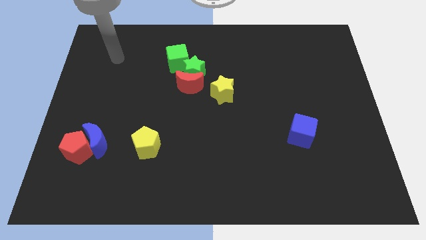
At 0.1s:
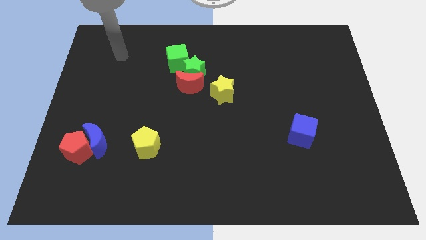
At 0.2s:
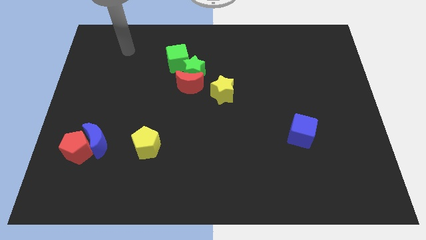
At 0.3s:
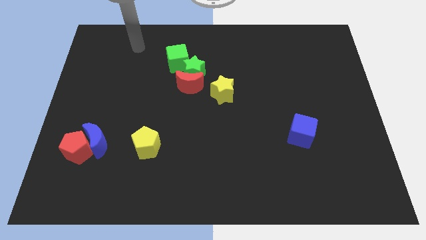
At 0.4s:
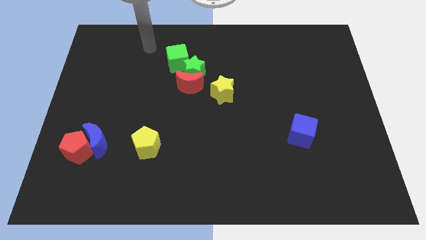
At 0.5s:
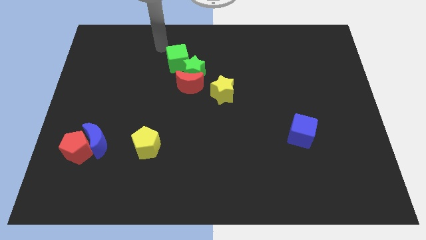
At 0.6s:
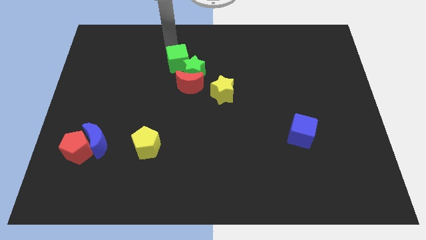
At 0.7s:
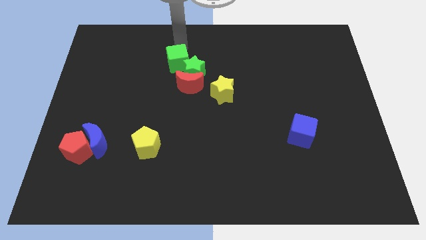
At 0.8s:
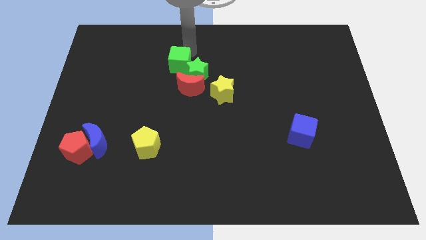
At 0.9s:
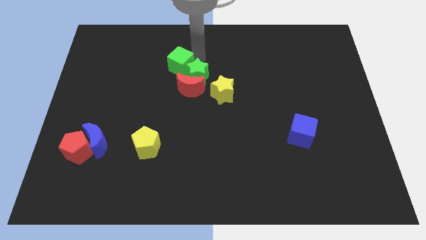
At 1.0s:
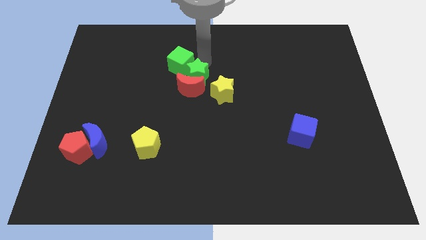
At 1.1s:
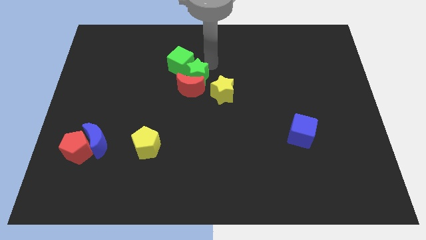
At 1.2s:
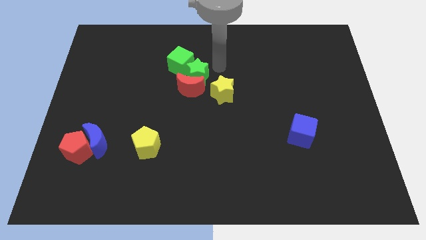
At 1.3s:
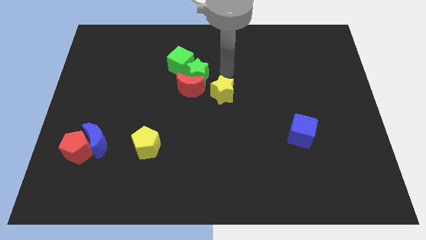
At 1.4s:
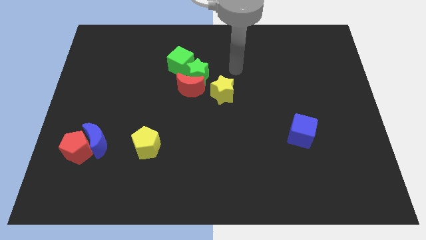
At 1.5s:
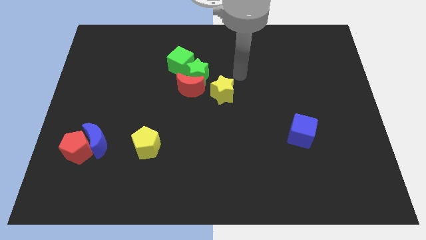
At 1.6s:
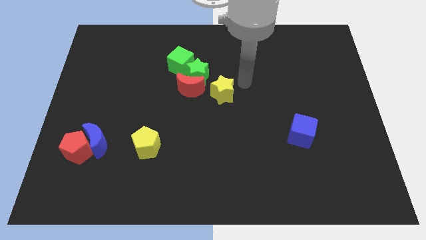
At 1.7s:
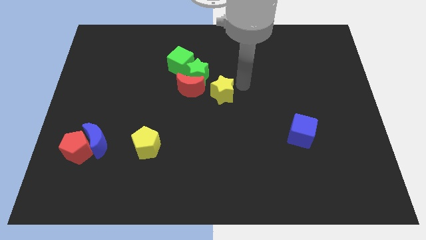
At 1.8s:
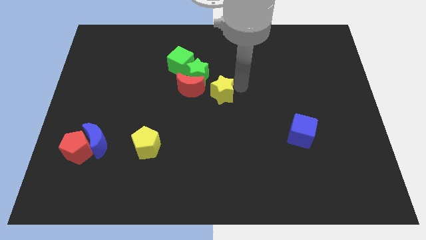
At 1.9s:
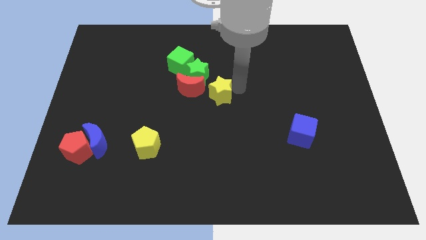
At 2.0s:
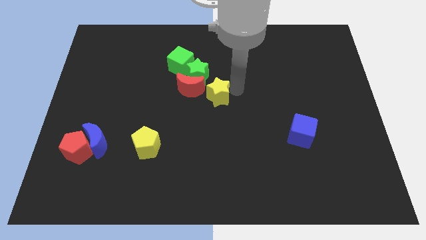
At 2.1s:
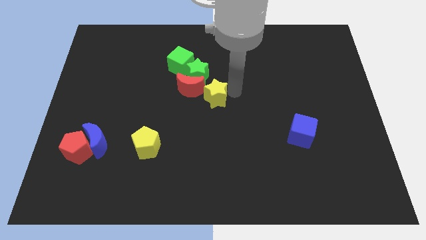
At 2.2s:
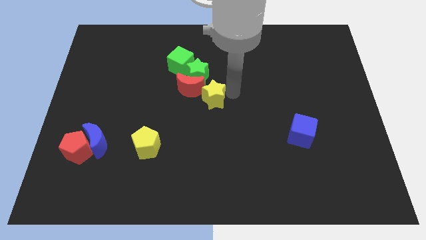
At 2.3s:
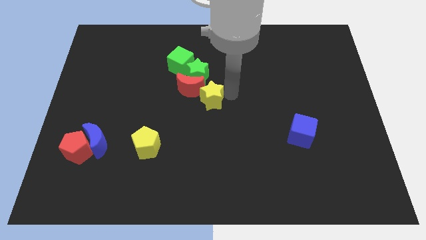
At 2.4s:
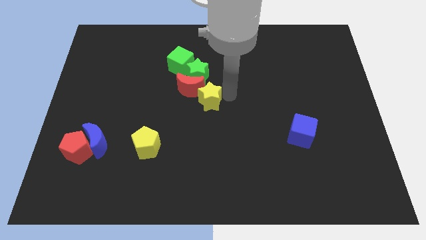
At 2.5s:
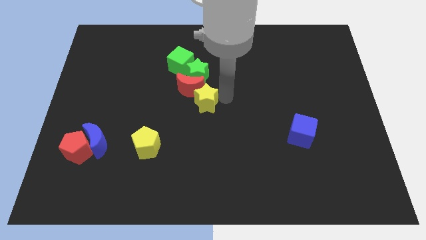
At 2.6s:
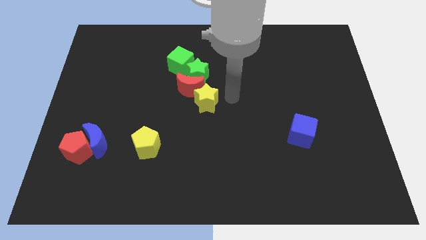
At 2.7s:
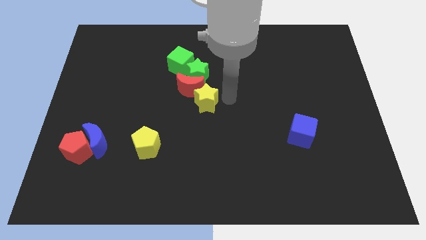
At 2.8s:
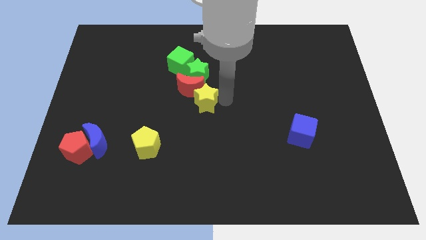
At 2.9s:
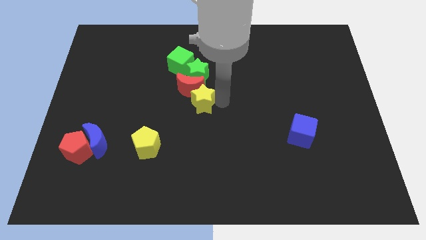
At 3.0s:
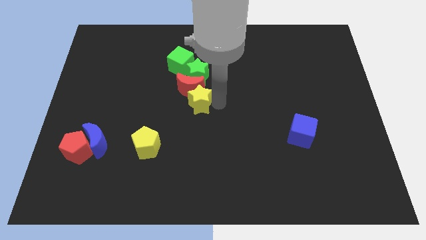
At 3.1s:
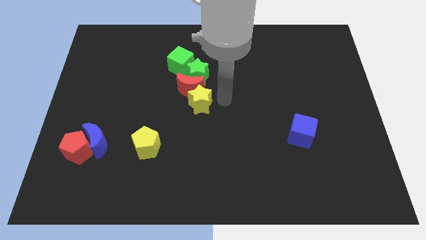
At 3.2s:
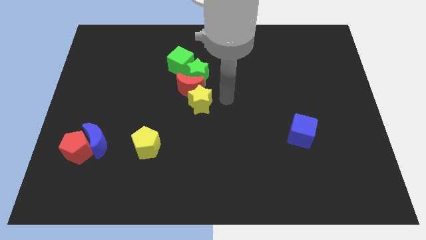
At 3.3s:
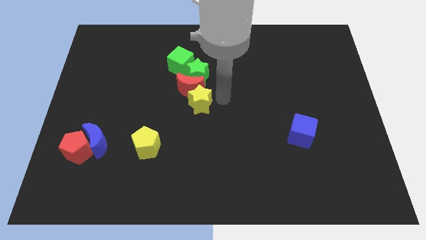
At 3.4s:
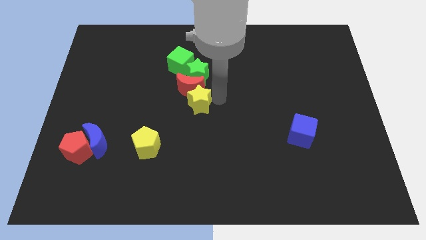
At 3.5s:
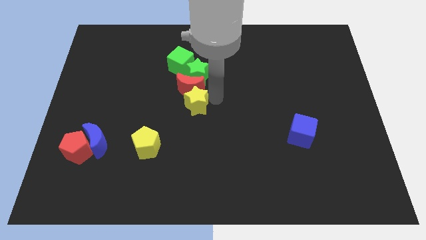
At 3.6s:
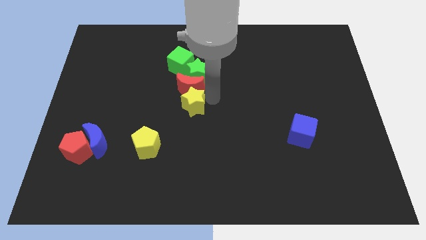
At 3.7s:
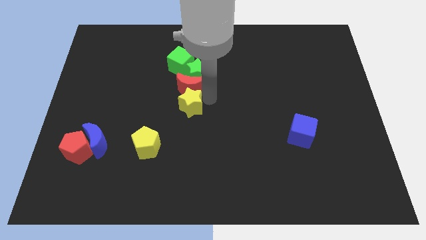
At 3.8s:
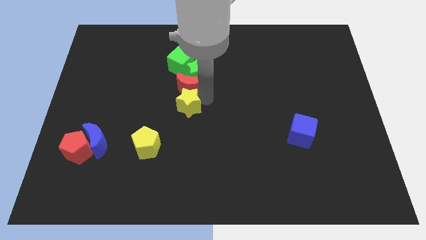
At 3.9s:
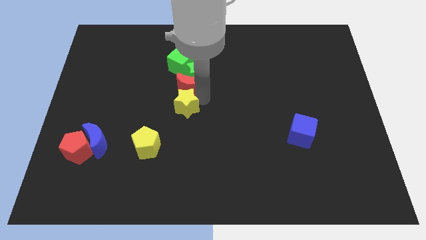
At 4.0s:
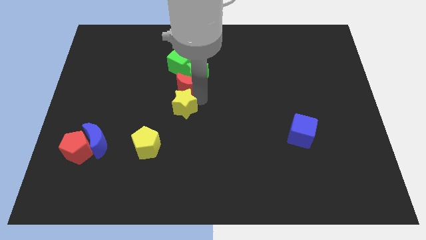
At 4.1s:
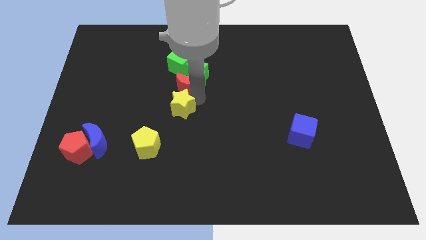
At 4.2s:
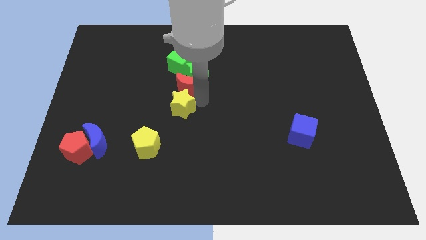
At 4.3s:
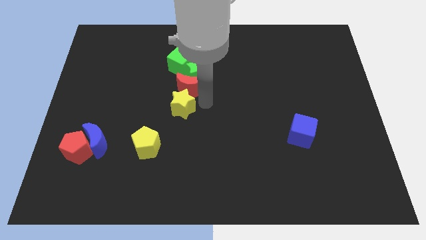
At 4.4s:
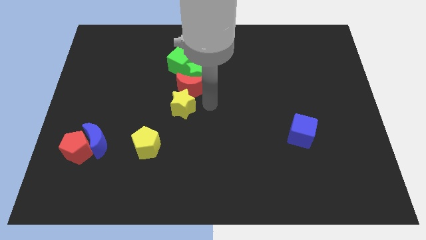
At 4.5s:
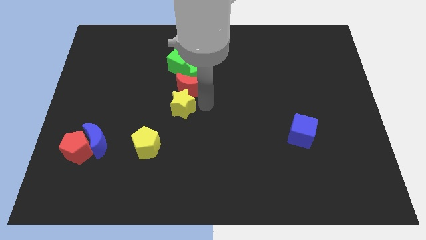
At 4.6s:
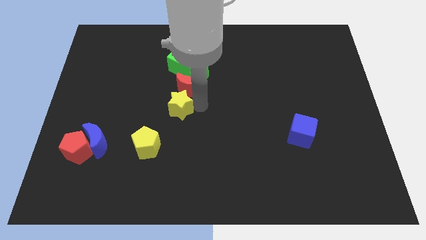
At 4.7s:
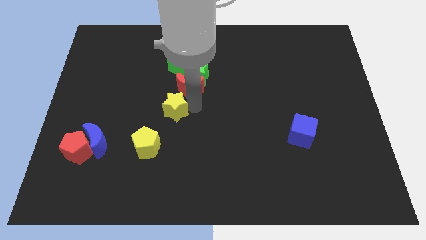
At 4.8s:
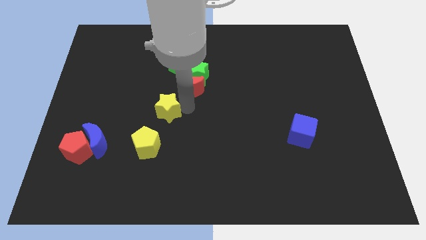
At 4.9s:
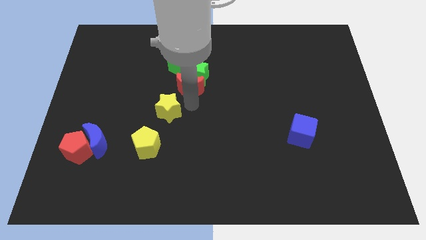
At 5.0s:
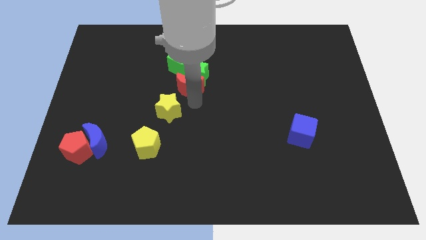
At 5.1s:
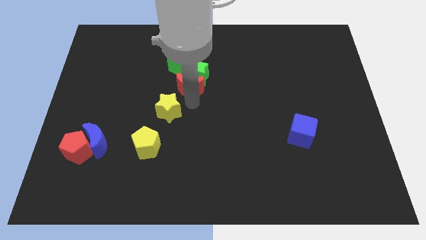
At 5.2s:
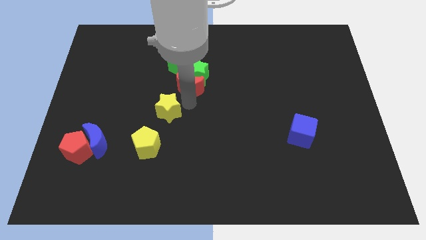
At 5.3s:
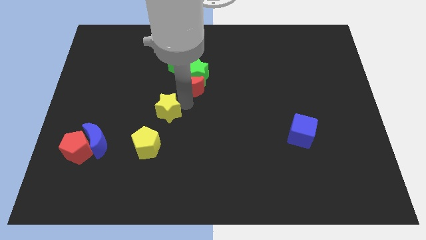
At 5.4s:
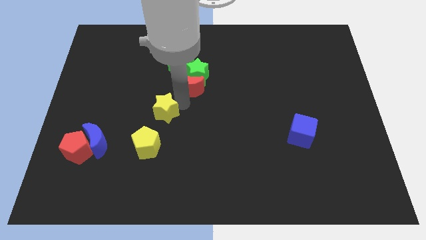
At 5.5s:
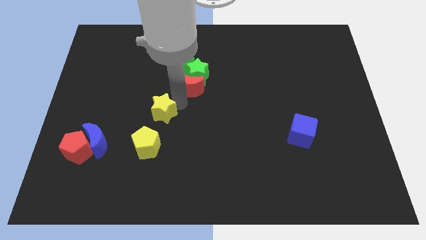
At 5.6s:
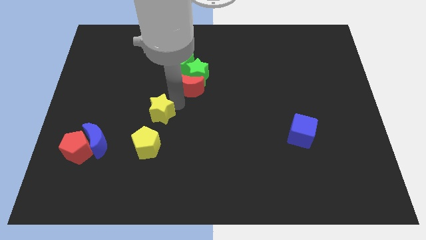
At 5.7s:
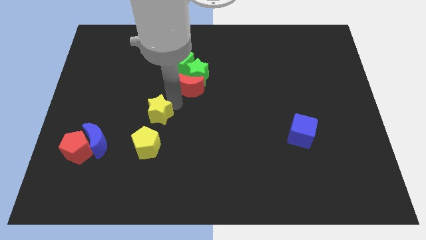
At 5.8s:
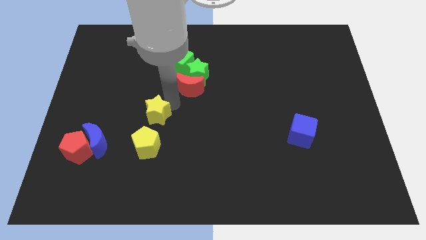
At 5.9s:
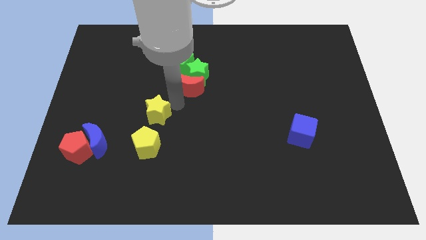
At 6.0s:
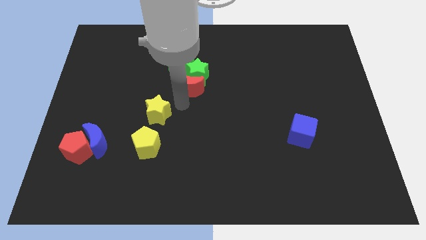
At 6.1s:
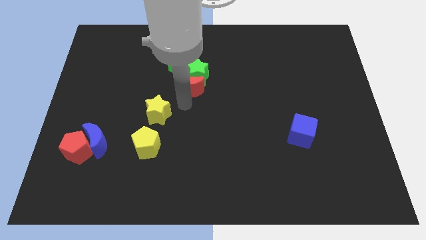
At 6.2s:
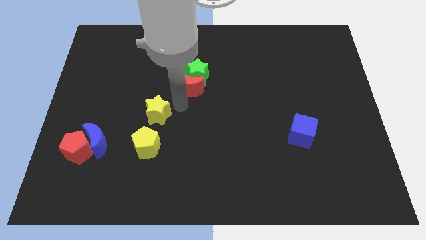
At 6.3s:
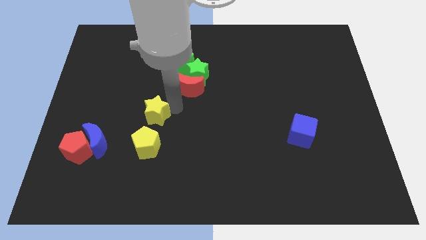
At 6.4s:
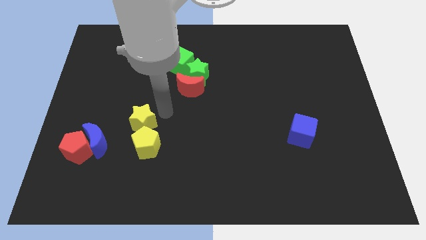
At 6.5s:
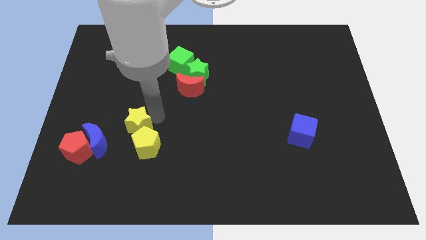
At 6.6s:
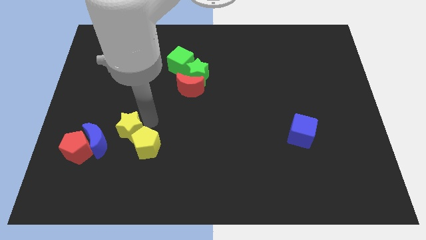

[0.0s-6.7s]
put the yellow star to the top right side of the red pentagon

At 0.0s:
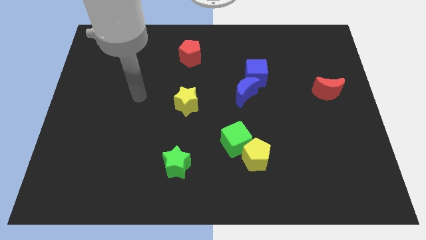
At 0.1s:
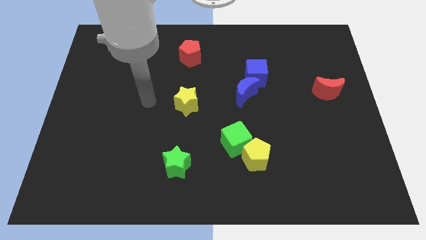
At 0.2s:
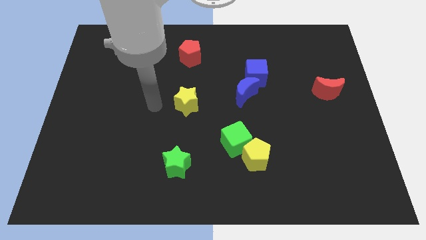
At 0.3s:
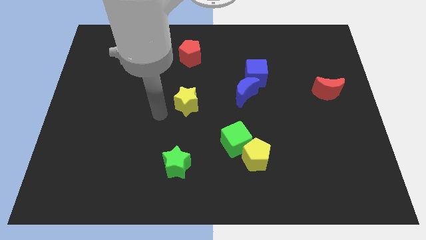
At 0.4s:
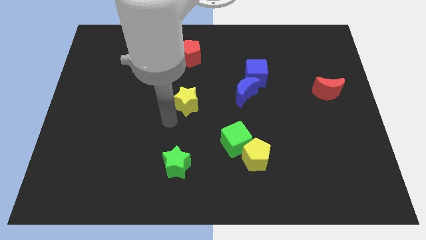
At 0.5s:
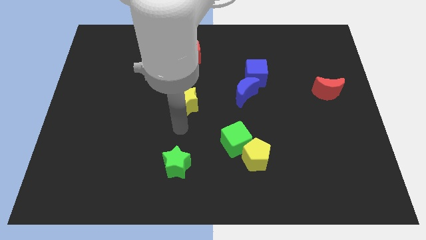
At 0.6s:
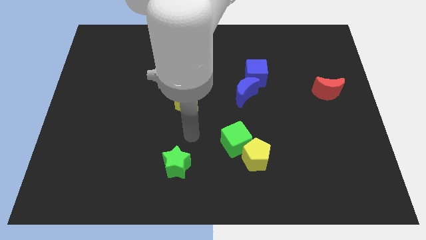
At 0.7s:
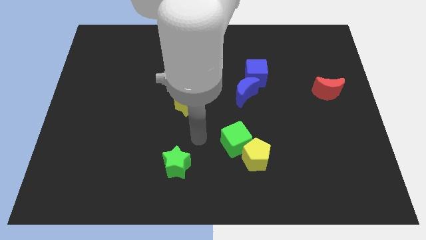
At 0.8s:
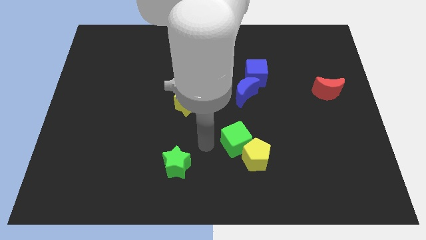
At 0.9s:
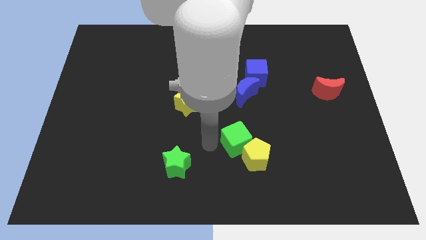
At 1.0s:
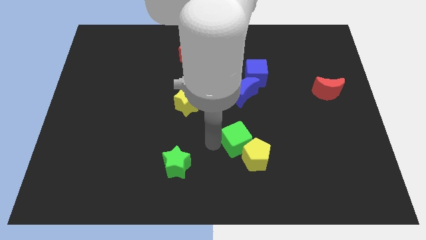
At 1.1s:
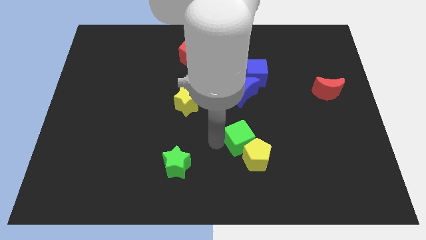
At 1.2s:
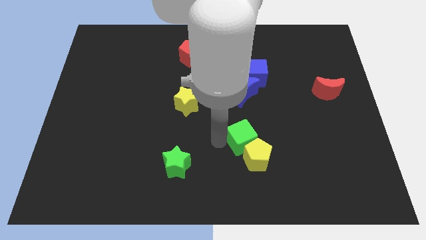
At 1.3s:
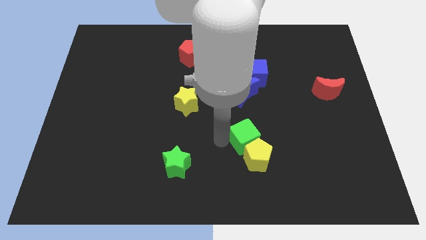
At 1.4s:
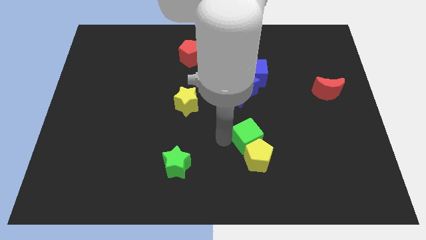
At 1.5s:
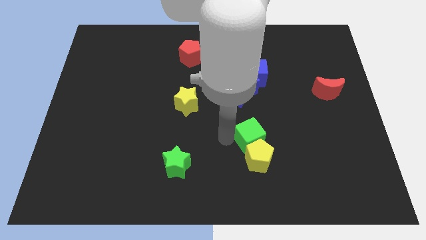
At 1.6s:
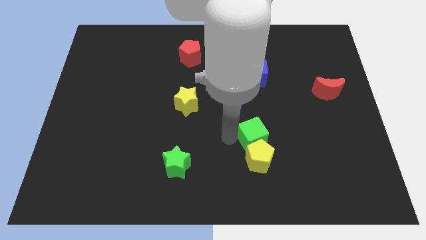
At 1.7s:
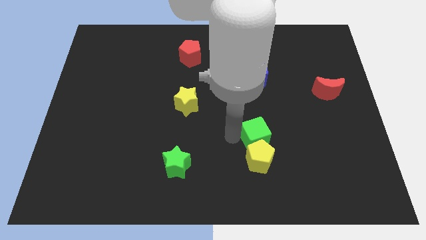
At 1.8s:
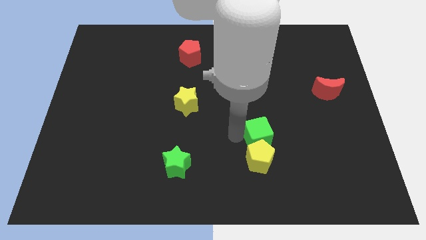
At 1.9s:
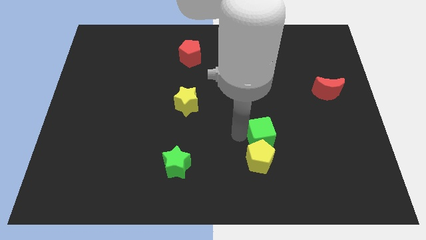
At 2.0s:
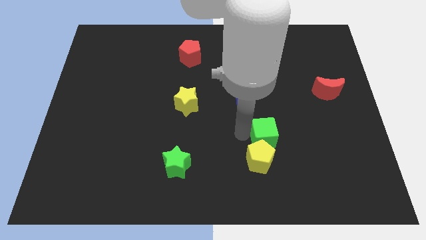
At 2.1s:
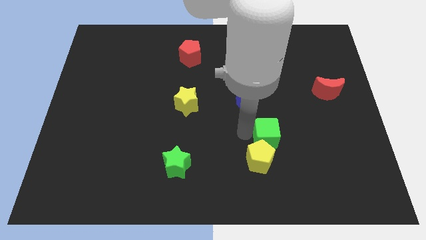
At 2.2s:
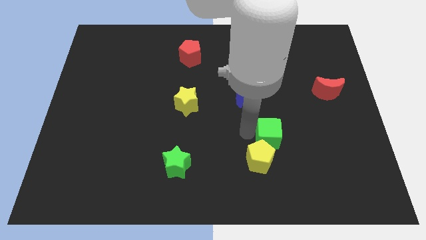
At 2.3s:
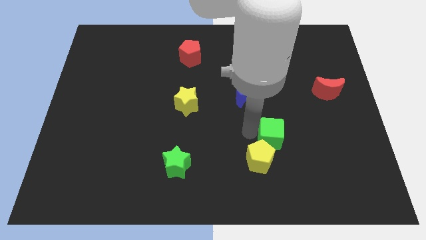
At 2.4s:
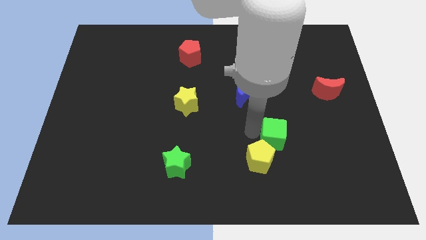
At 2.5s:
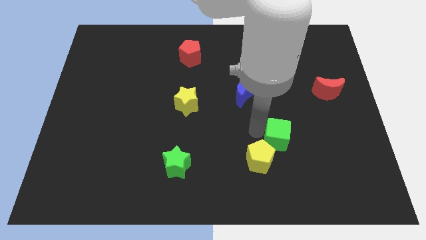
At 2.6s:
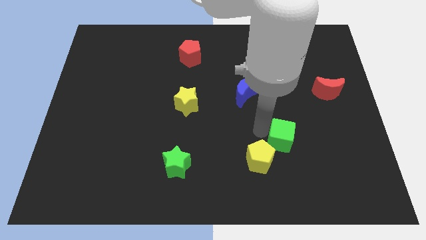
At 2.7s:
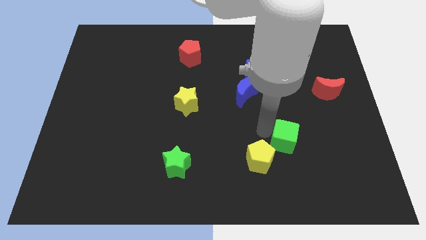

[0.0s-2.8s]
put the green cube to the right side of the yellow pentagon
